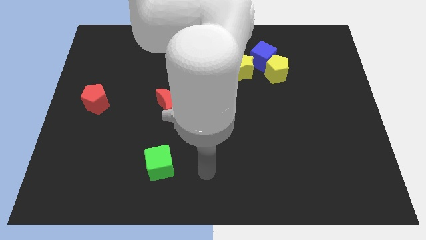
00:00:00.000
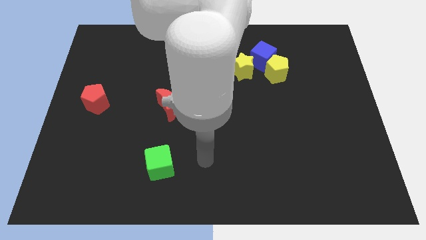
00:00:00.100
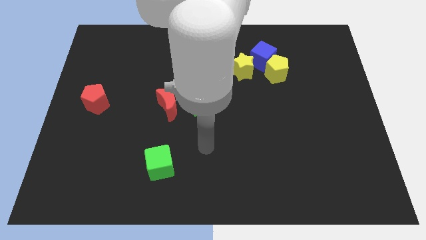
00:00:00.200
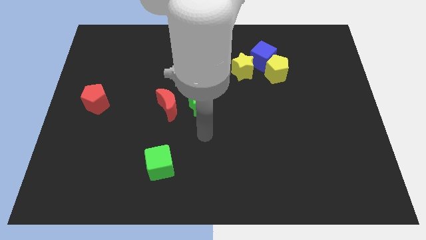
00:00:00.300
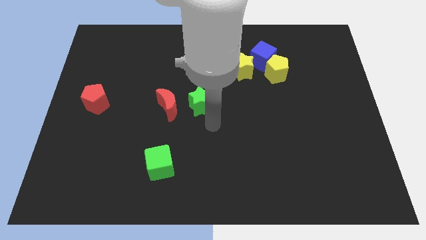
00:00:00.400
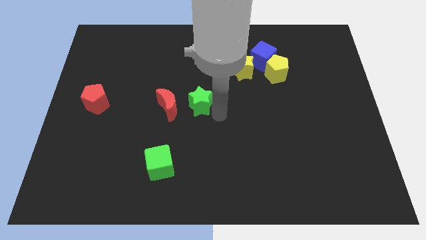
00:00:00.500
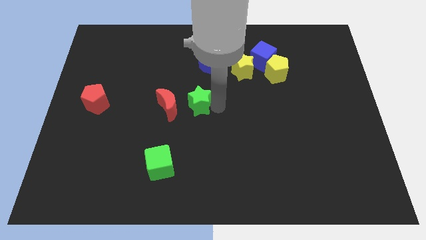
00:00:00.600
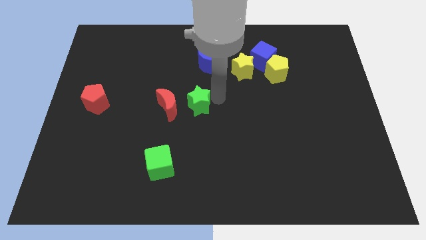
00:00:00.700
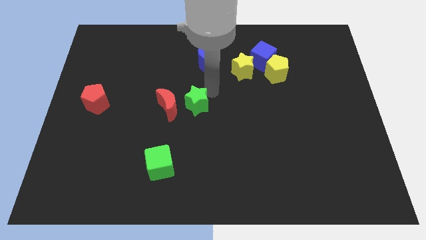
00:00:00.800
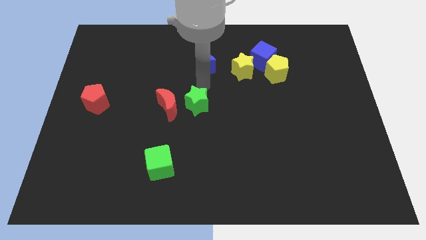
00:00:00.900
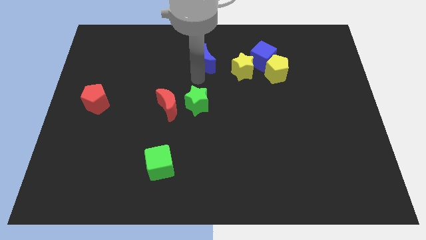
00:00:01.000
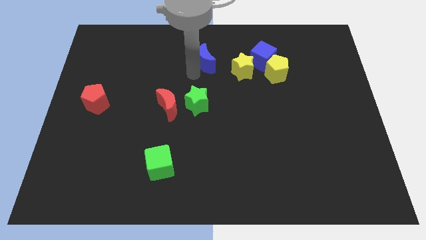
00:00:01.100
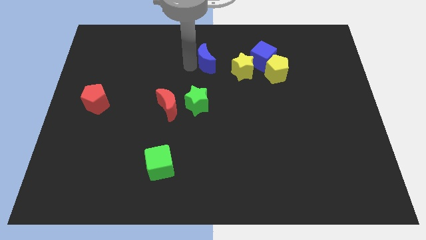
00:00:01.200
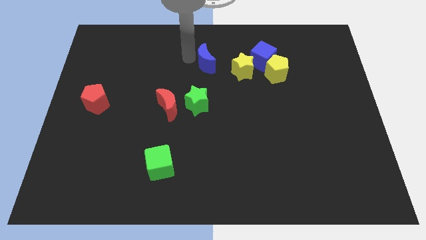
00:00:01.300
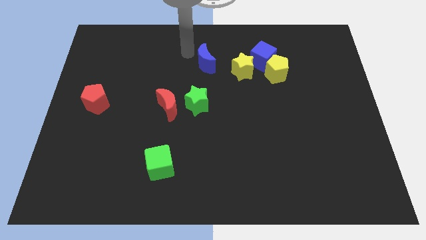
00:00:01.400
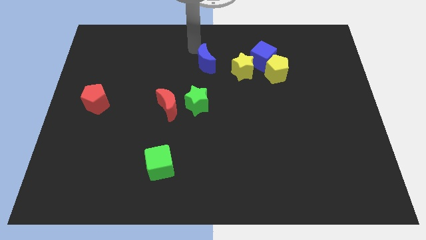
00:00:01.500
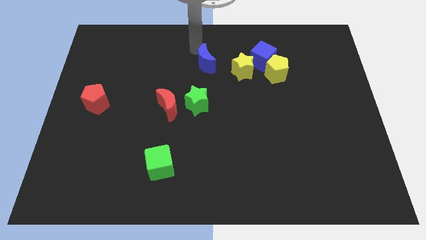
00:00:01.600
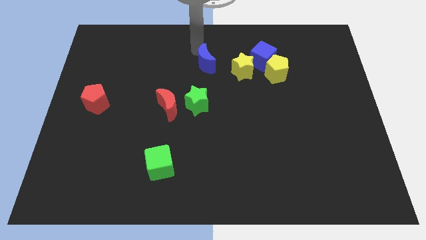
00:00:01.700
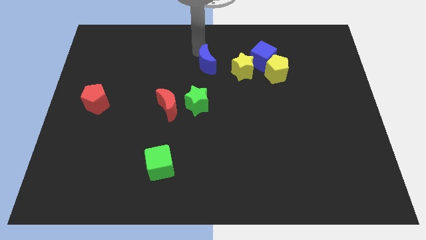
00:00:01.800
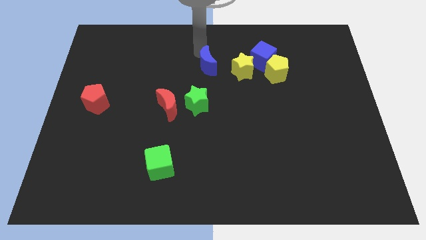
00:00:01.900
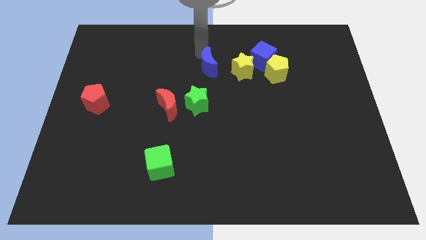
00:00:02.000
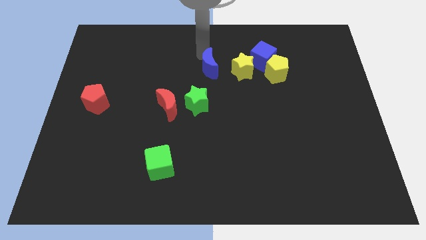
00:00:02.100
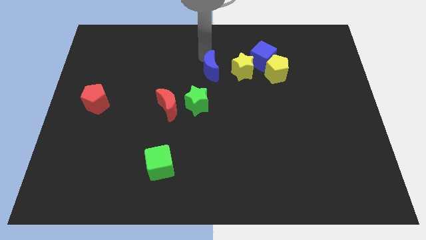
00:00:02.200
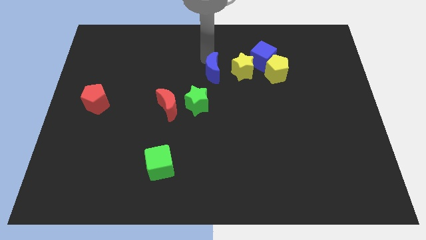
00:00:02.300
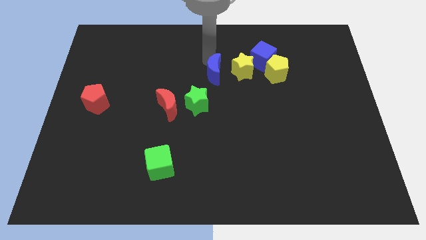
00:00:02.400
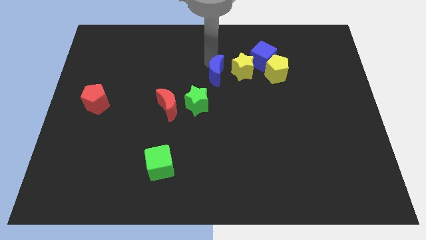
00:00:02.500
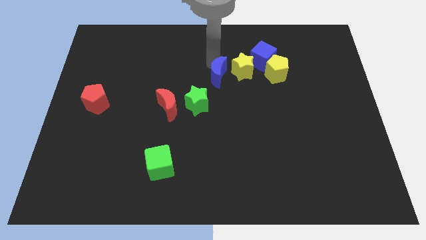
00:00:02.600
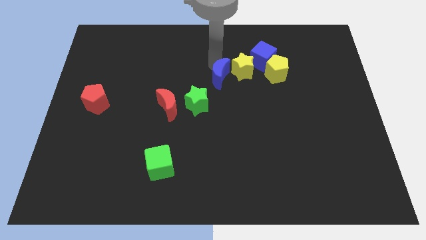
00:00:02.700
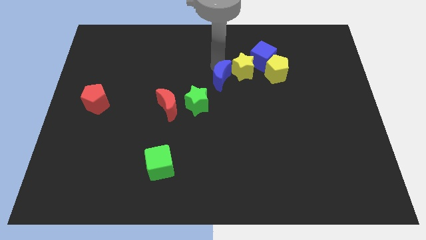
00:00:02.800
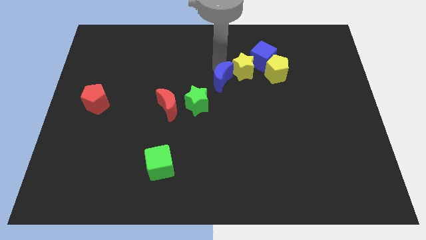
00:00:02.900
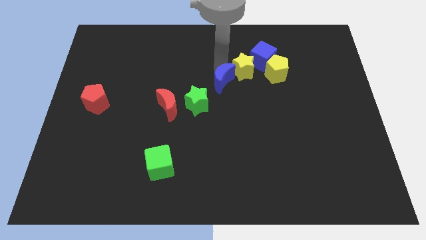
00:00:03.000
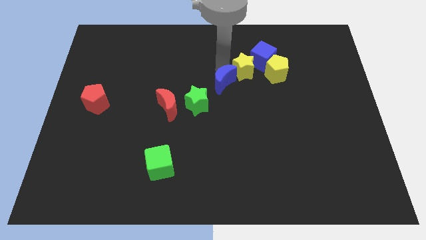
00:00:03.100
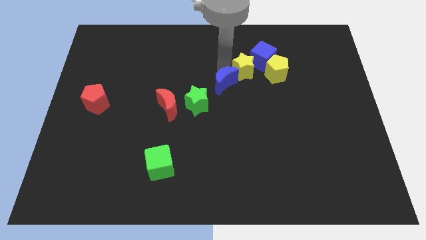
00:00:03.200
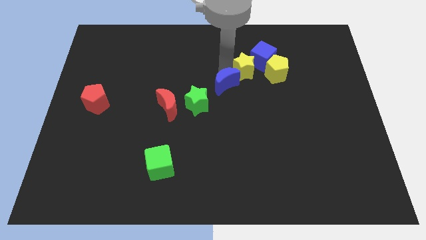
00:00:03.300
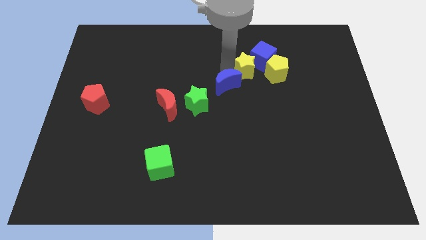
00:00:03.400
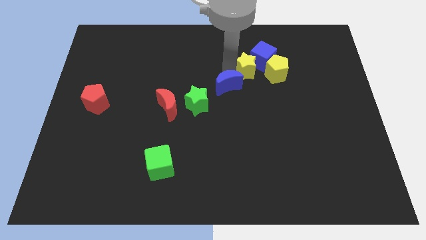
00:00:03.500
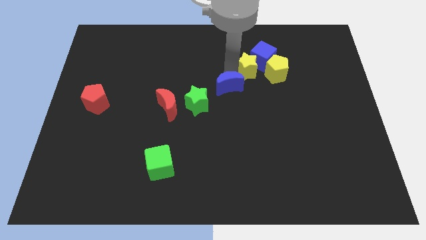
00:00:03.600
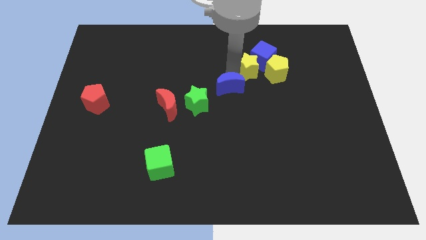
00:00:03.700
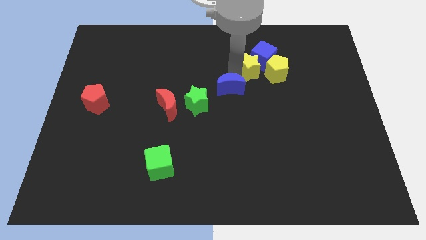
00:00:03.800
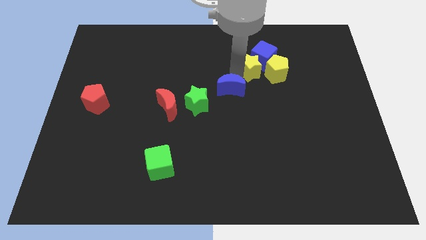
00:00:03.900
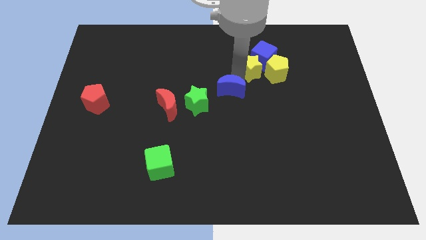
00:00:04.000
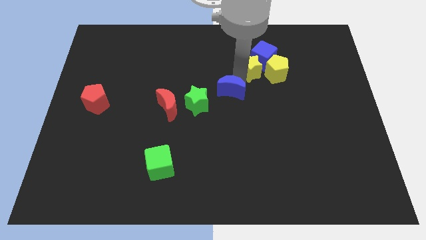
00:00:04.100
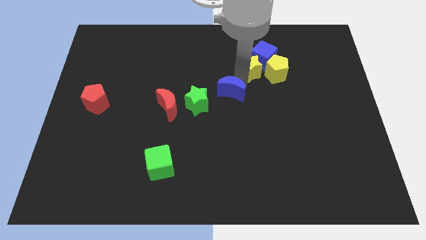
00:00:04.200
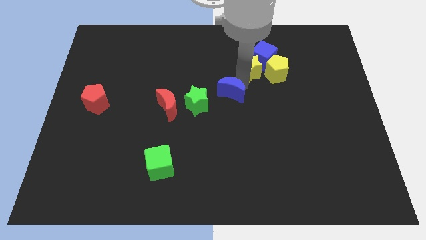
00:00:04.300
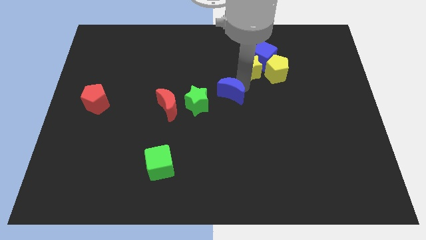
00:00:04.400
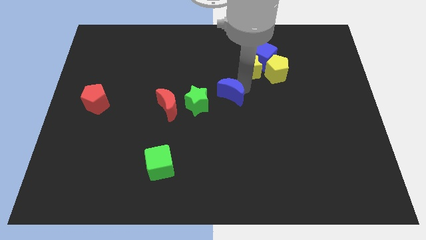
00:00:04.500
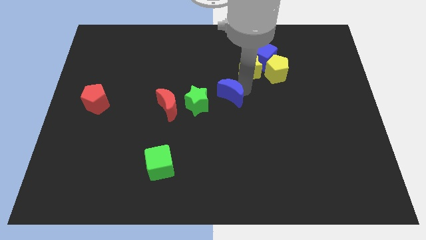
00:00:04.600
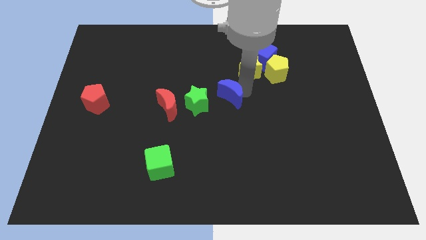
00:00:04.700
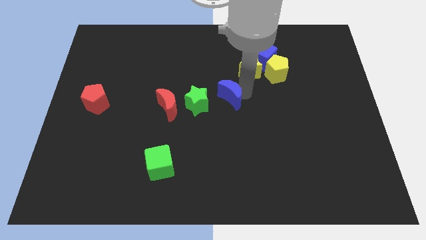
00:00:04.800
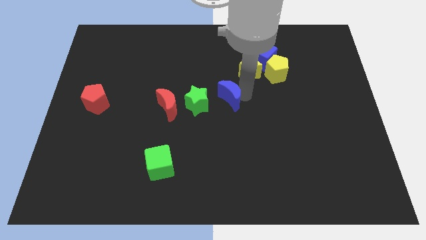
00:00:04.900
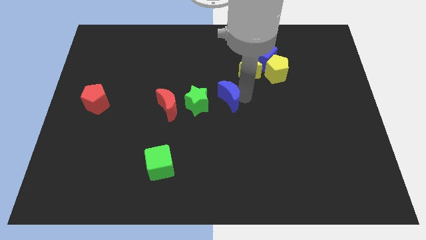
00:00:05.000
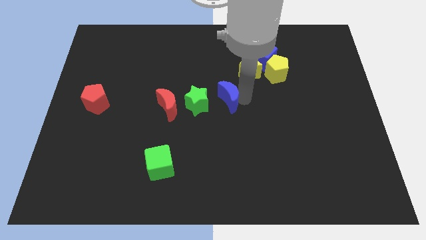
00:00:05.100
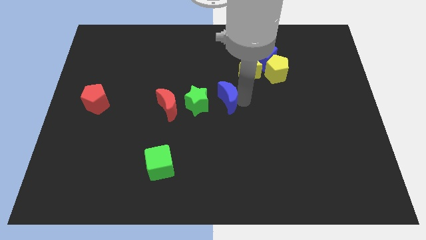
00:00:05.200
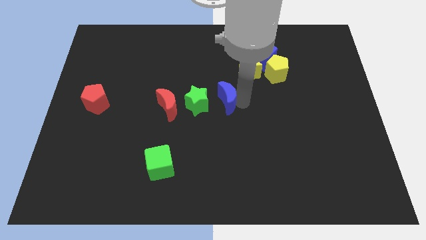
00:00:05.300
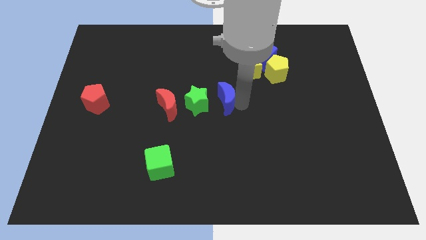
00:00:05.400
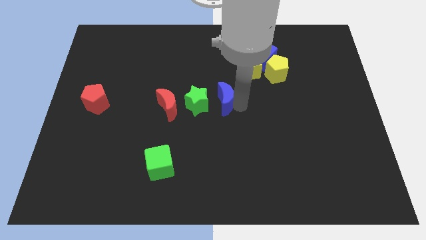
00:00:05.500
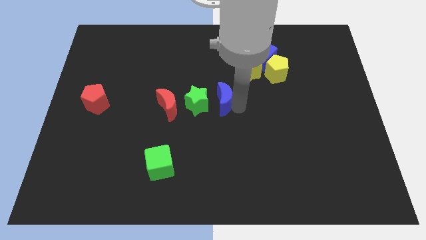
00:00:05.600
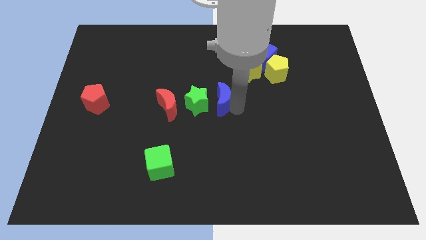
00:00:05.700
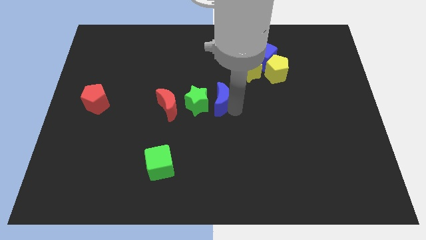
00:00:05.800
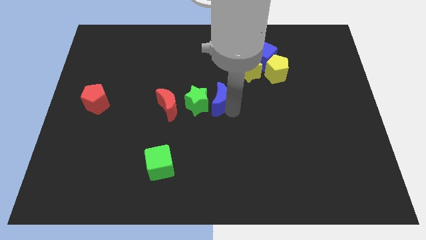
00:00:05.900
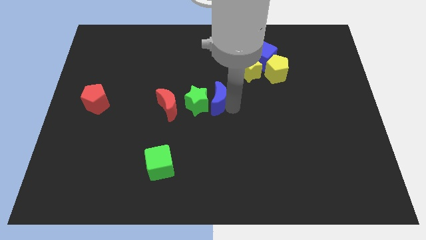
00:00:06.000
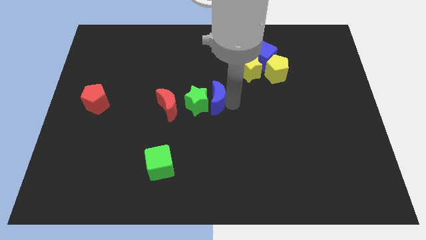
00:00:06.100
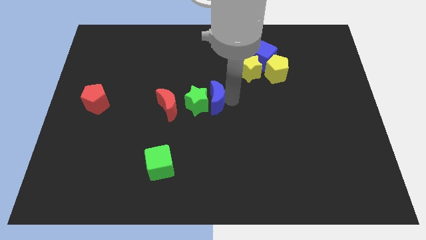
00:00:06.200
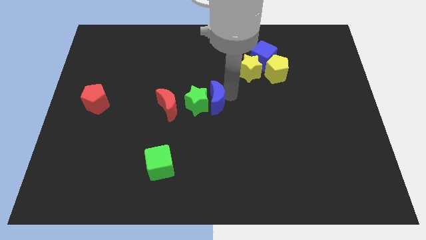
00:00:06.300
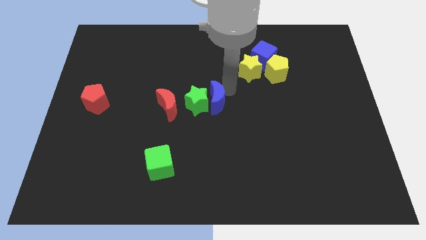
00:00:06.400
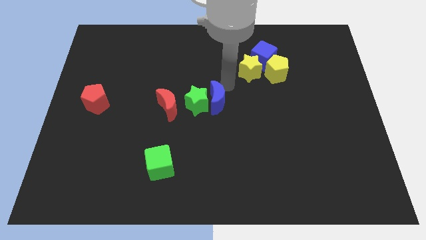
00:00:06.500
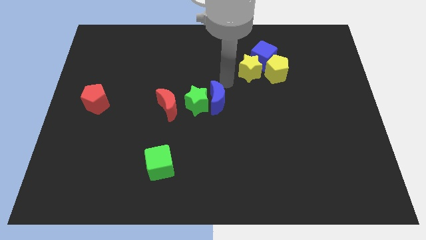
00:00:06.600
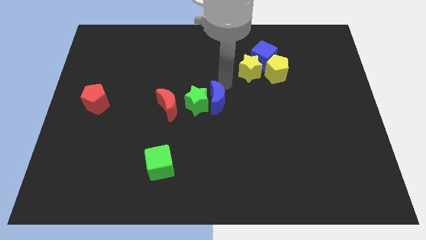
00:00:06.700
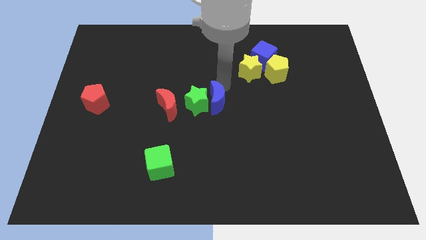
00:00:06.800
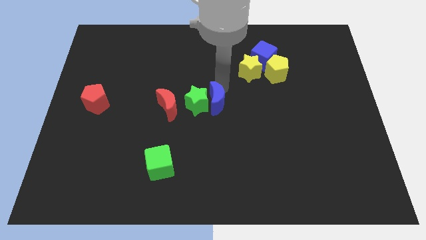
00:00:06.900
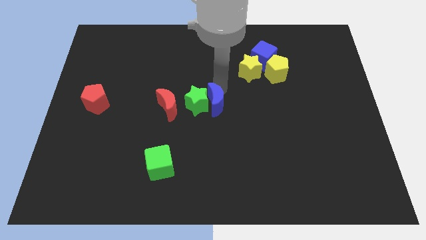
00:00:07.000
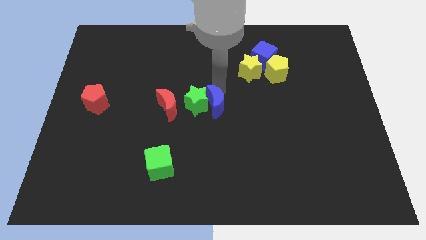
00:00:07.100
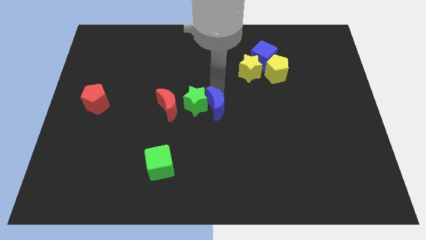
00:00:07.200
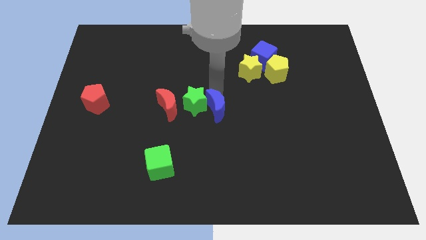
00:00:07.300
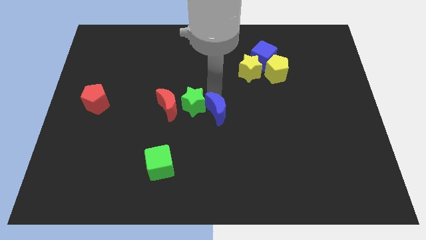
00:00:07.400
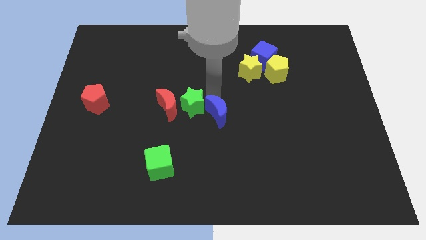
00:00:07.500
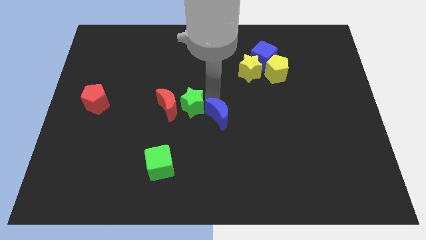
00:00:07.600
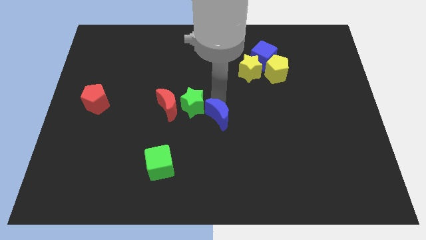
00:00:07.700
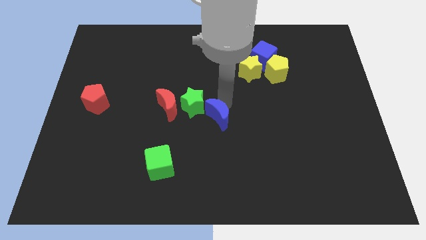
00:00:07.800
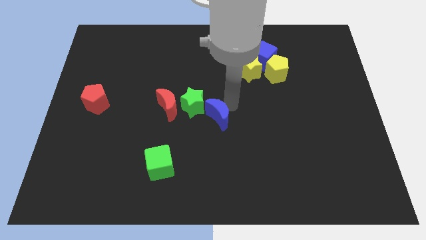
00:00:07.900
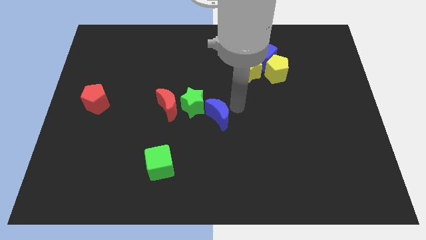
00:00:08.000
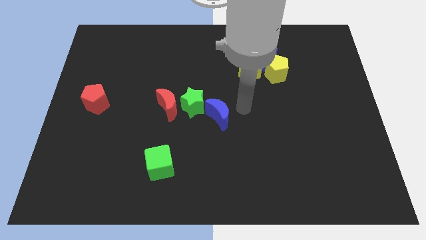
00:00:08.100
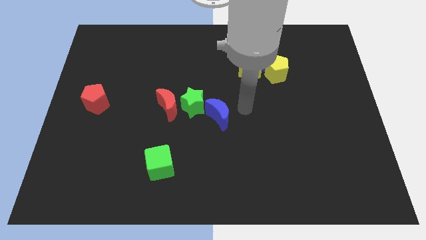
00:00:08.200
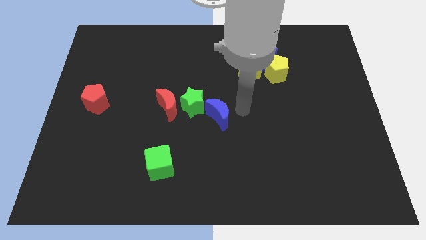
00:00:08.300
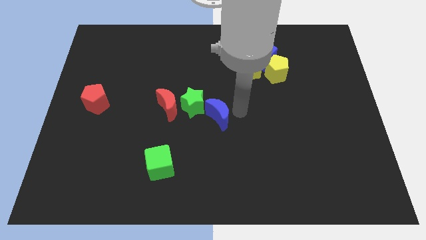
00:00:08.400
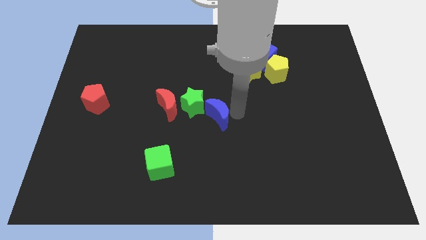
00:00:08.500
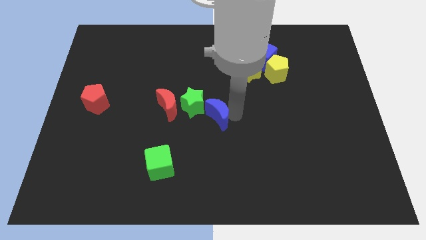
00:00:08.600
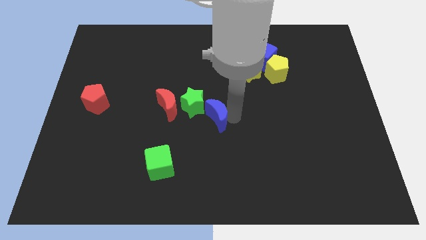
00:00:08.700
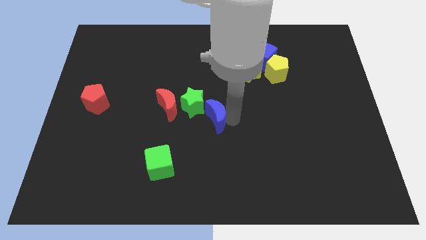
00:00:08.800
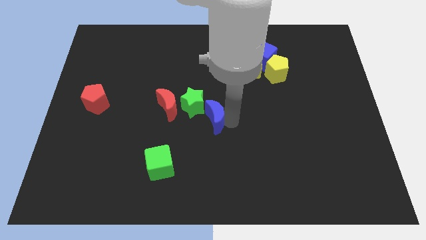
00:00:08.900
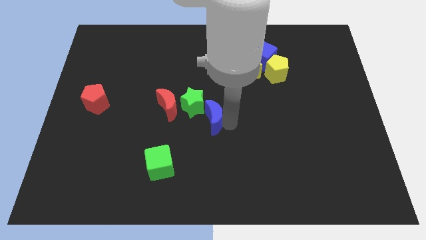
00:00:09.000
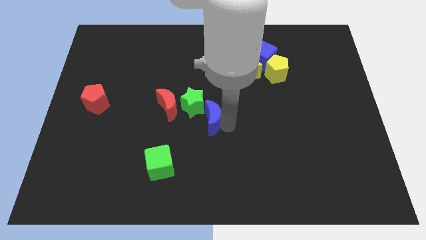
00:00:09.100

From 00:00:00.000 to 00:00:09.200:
push the blue moon to the bottom right side of the red moon
